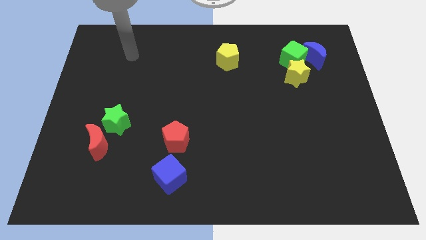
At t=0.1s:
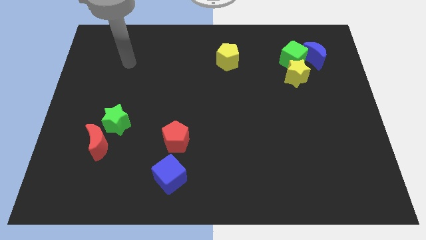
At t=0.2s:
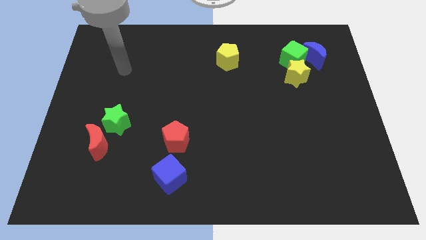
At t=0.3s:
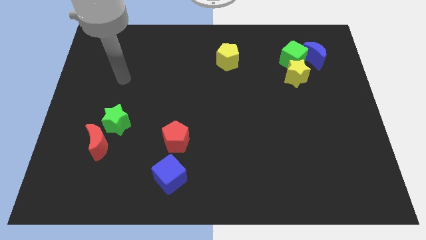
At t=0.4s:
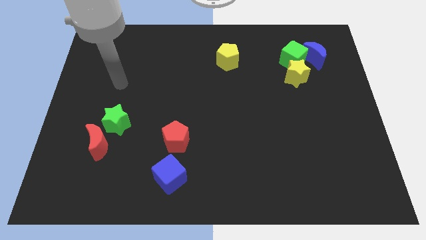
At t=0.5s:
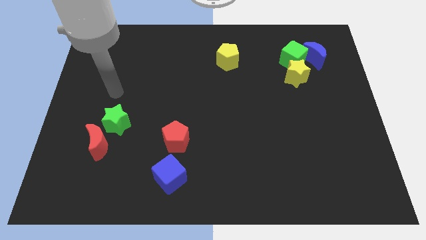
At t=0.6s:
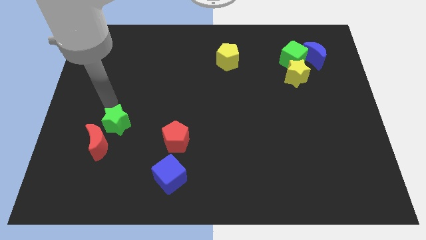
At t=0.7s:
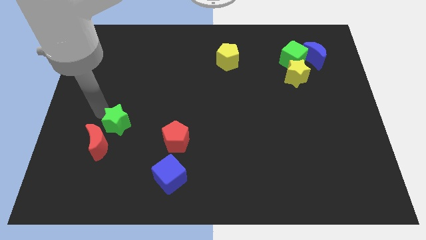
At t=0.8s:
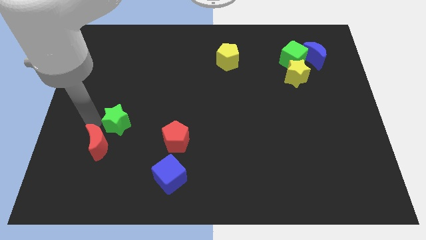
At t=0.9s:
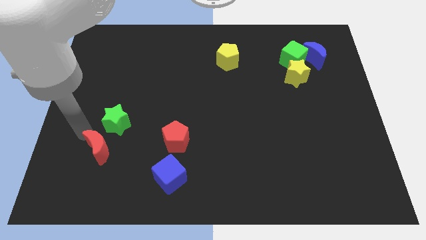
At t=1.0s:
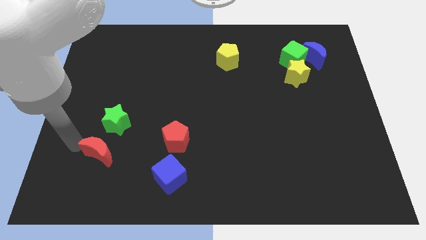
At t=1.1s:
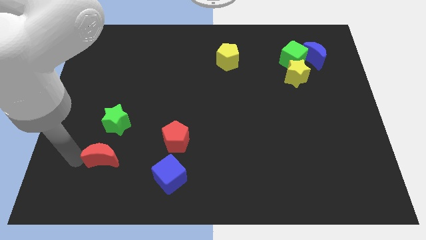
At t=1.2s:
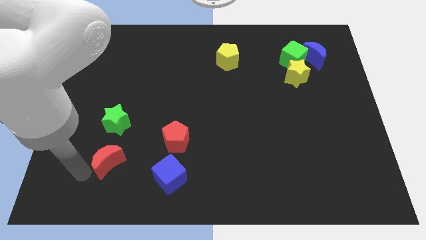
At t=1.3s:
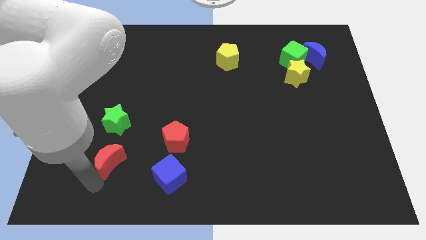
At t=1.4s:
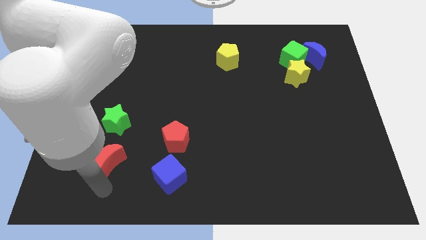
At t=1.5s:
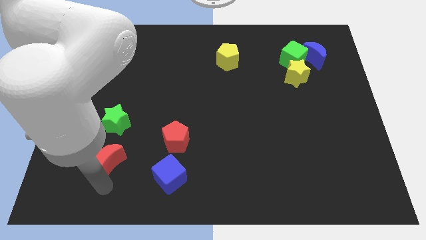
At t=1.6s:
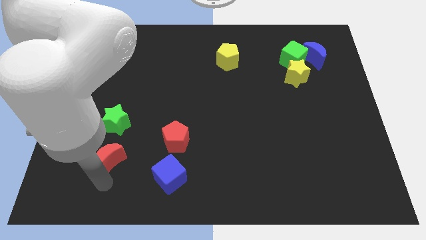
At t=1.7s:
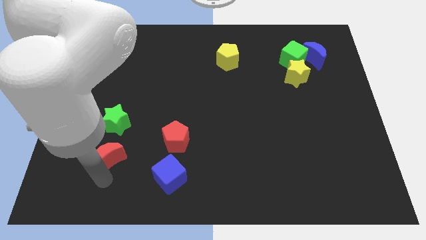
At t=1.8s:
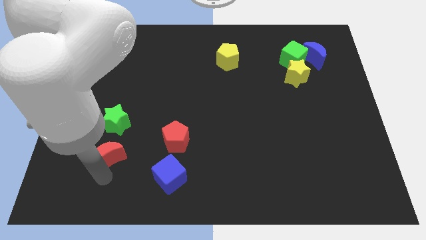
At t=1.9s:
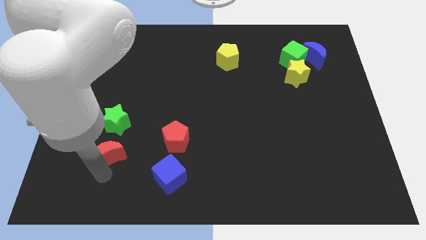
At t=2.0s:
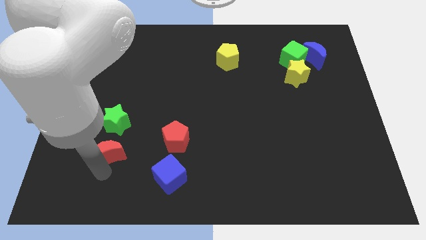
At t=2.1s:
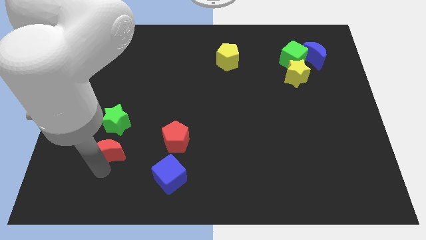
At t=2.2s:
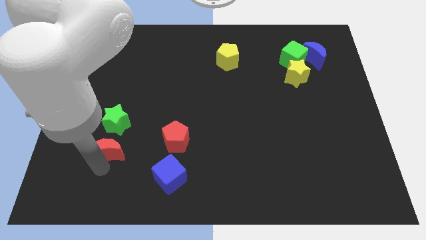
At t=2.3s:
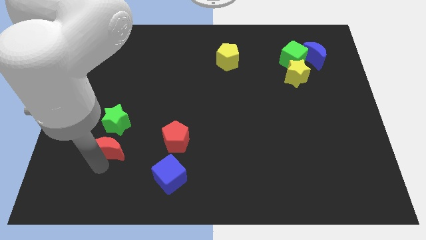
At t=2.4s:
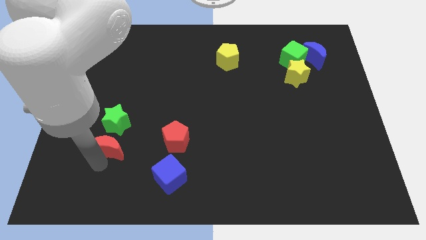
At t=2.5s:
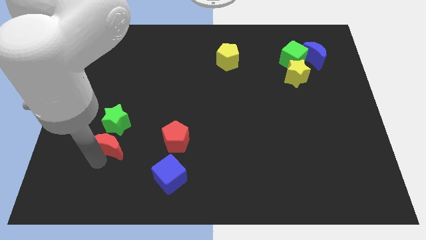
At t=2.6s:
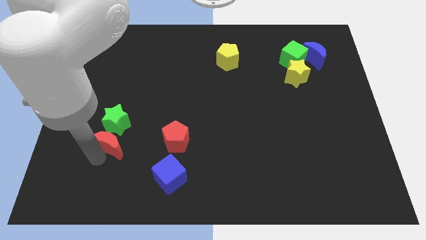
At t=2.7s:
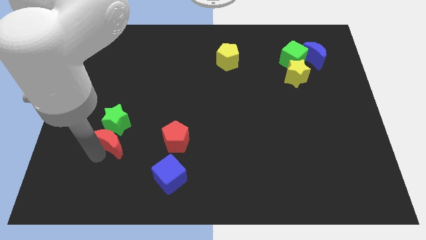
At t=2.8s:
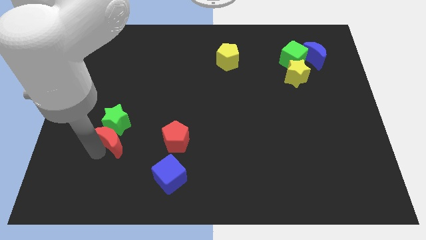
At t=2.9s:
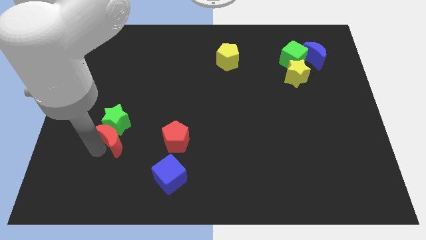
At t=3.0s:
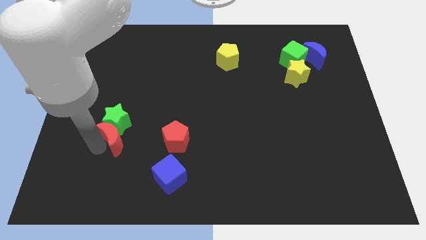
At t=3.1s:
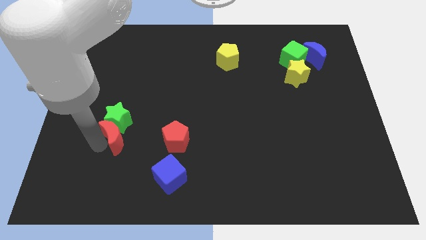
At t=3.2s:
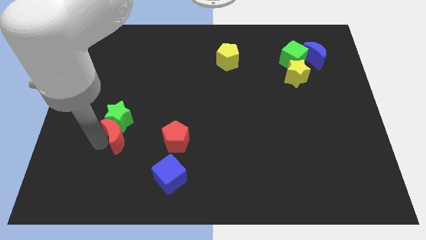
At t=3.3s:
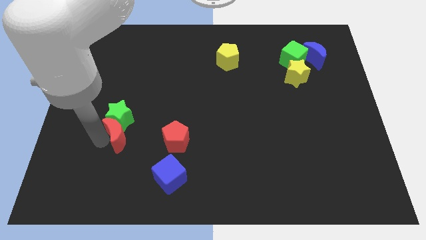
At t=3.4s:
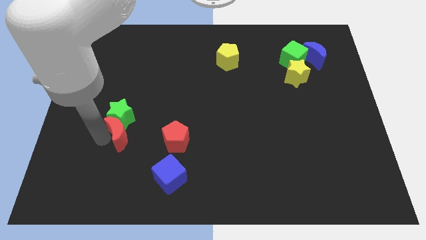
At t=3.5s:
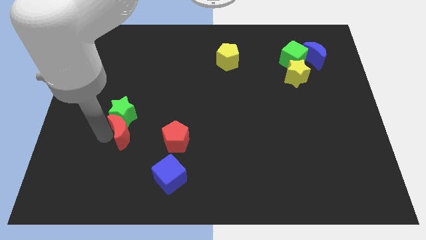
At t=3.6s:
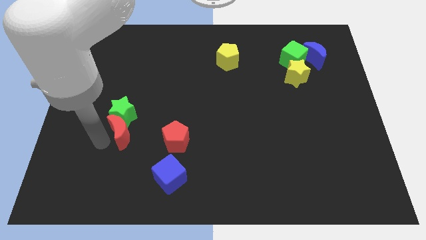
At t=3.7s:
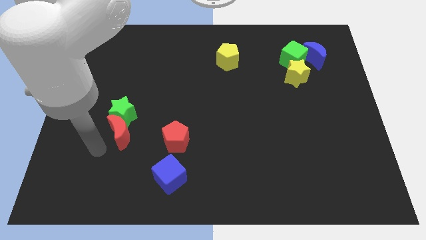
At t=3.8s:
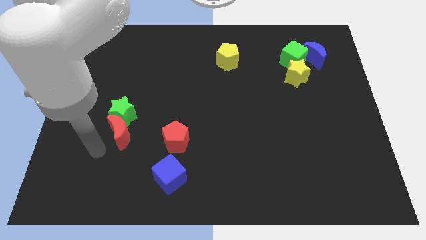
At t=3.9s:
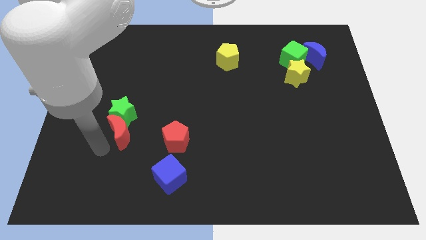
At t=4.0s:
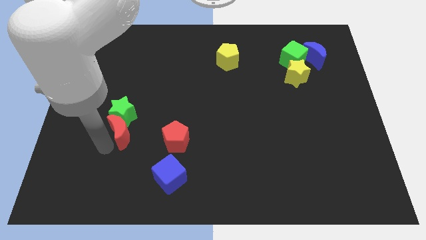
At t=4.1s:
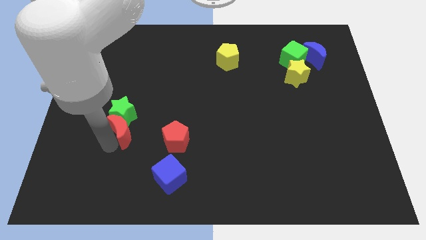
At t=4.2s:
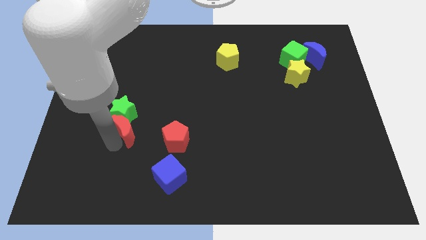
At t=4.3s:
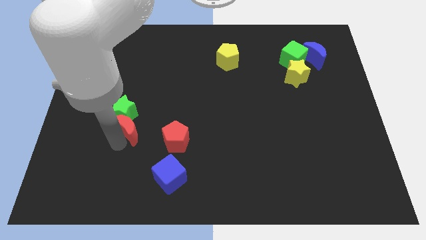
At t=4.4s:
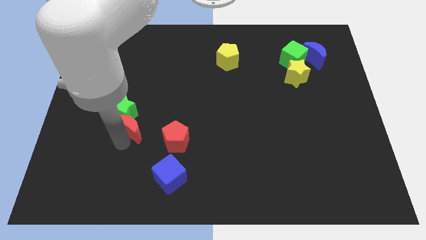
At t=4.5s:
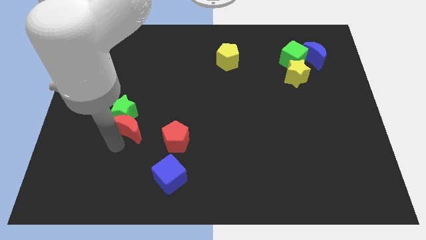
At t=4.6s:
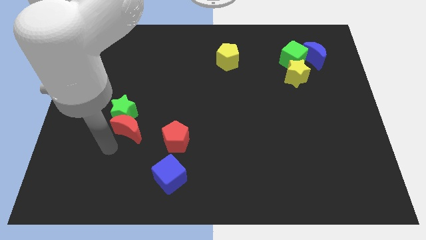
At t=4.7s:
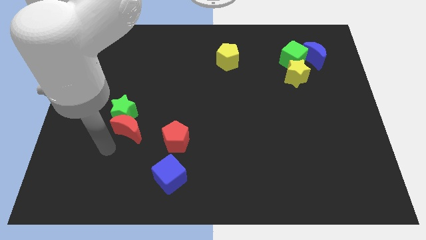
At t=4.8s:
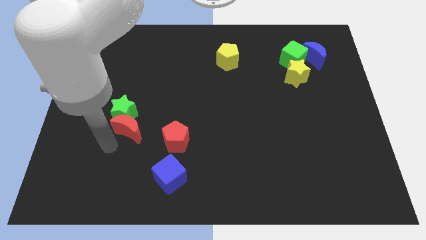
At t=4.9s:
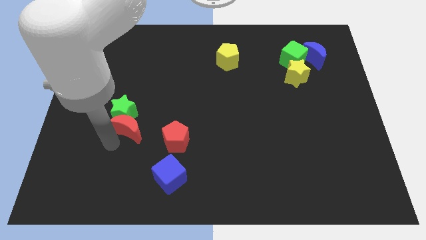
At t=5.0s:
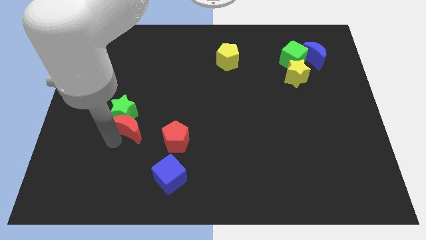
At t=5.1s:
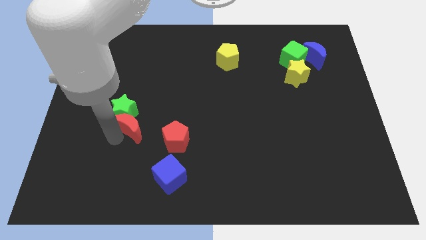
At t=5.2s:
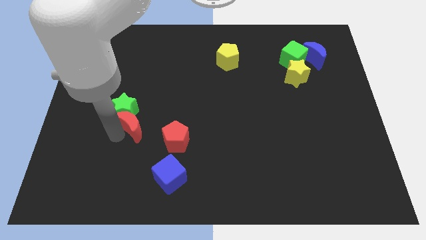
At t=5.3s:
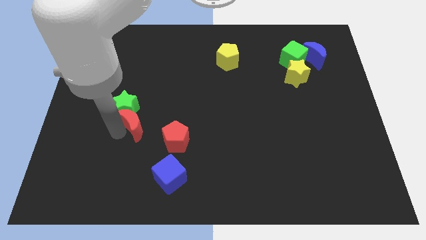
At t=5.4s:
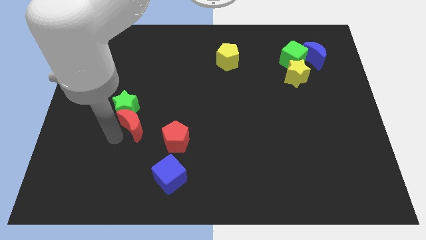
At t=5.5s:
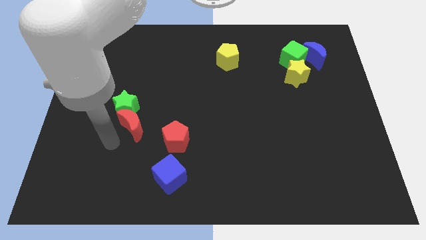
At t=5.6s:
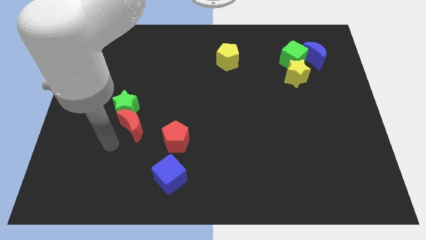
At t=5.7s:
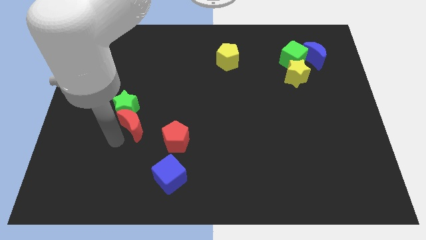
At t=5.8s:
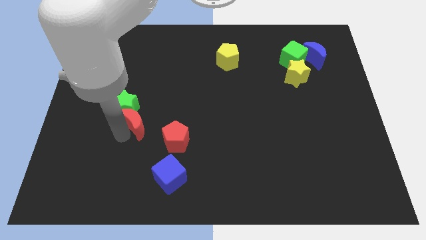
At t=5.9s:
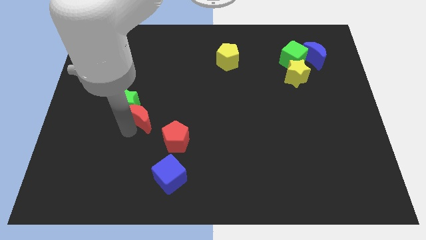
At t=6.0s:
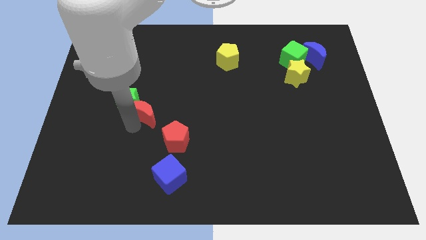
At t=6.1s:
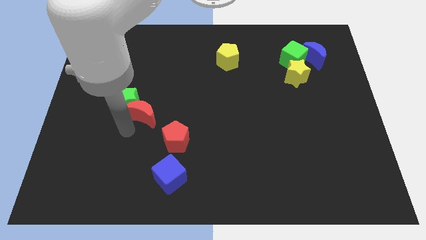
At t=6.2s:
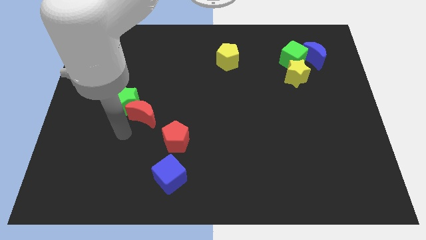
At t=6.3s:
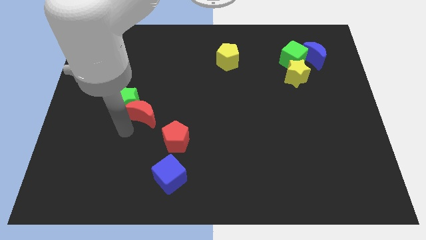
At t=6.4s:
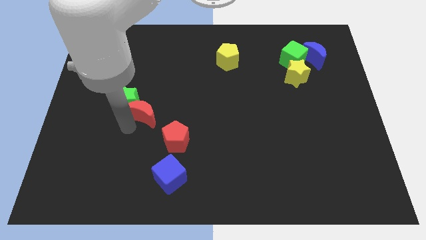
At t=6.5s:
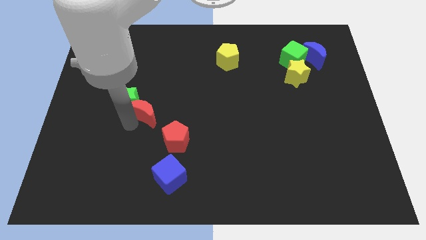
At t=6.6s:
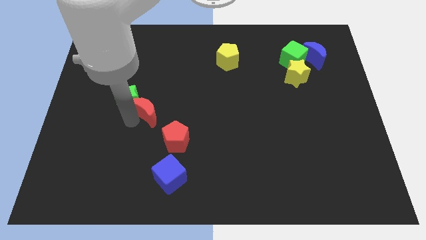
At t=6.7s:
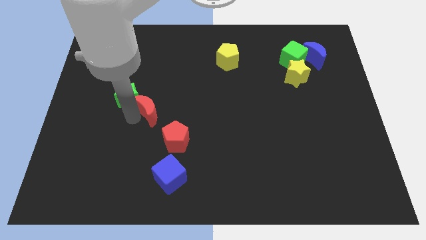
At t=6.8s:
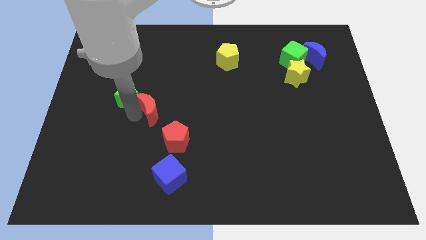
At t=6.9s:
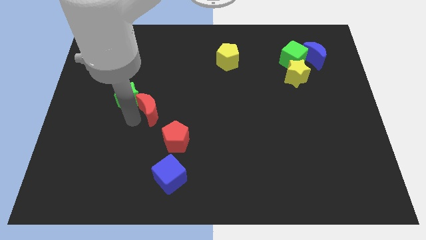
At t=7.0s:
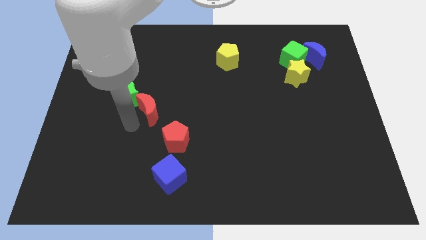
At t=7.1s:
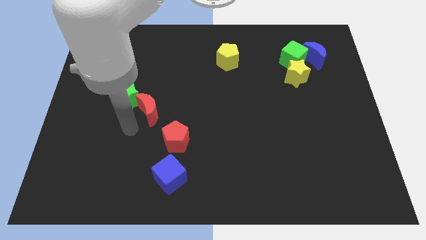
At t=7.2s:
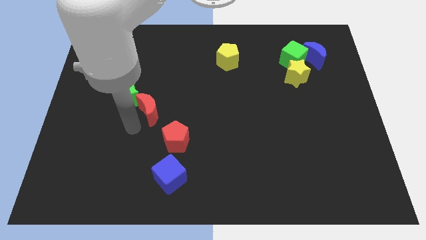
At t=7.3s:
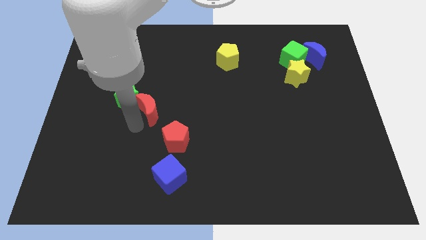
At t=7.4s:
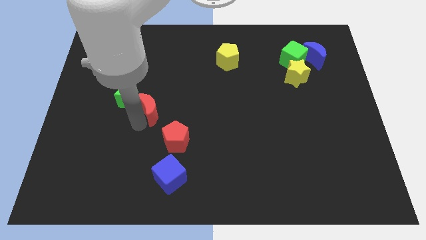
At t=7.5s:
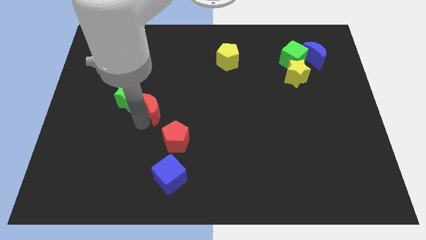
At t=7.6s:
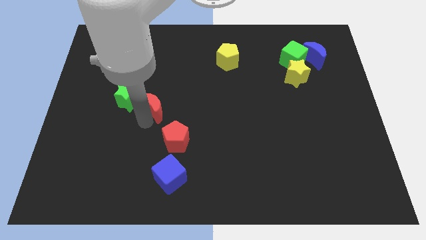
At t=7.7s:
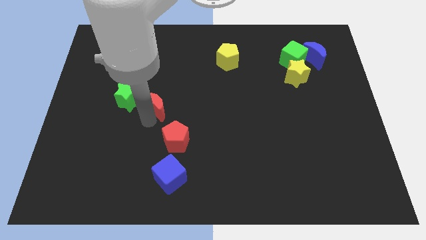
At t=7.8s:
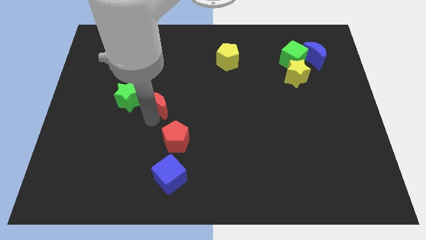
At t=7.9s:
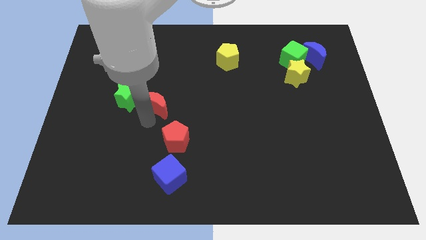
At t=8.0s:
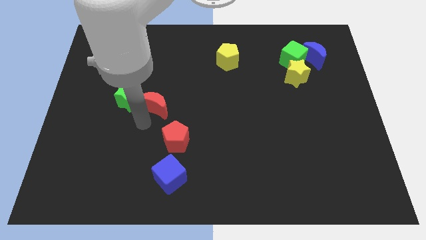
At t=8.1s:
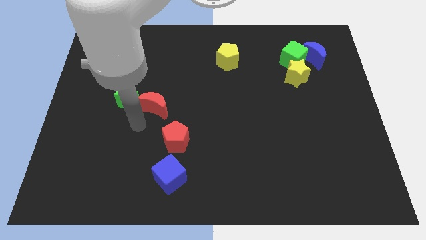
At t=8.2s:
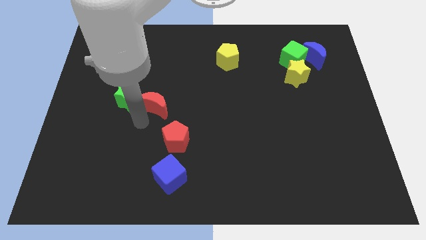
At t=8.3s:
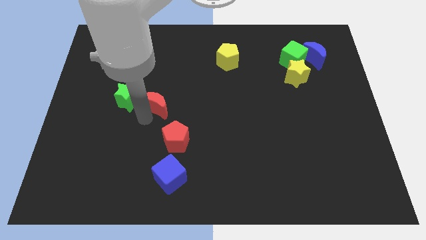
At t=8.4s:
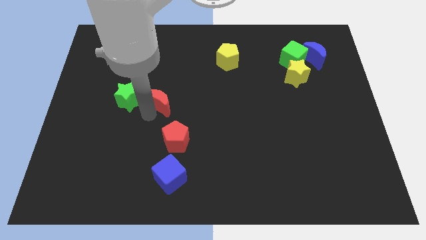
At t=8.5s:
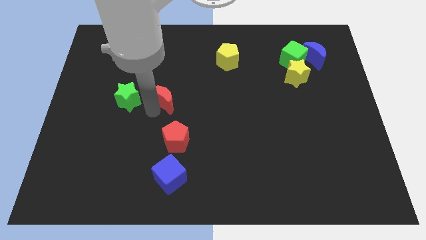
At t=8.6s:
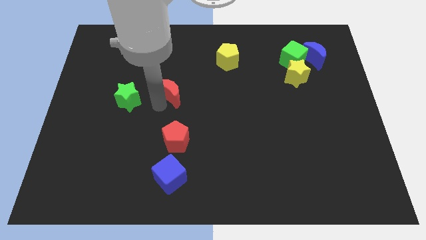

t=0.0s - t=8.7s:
slide the red moon up and to the right
